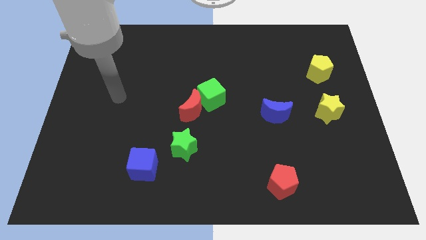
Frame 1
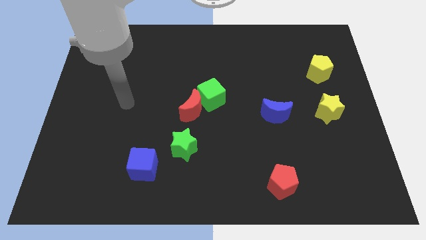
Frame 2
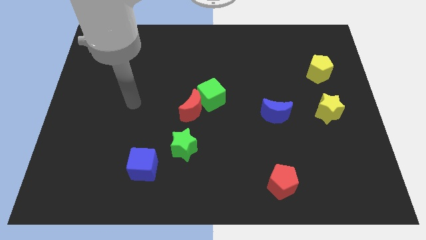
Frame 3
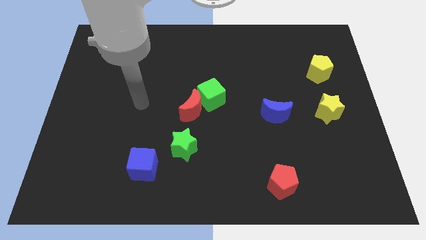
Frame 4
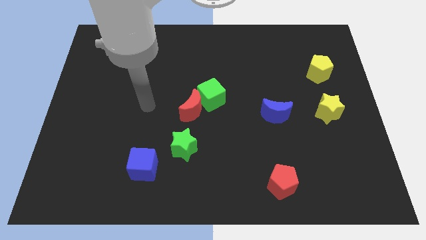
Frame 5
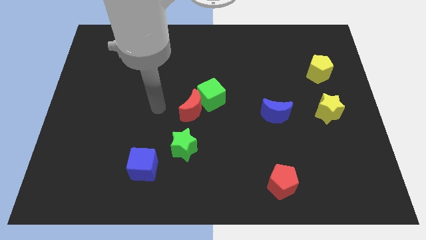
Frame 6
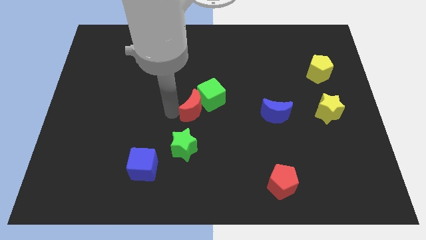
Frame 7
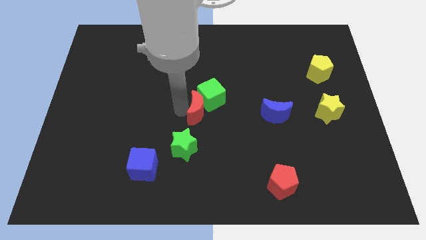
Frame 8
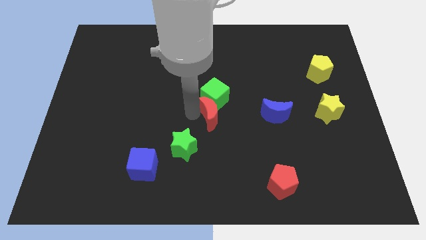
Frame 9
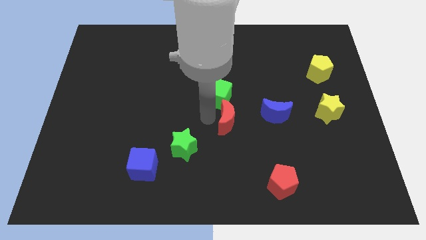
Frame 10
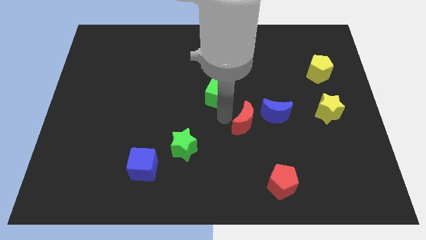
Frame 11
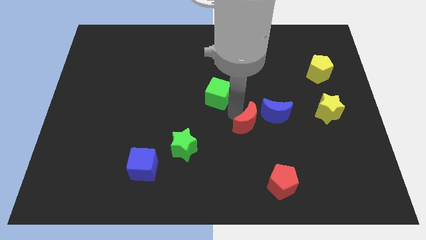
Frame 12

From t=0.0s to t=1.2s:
move the green cube away from the red moon

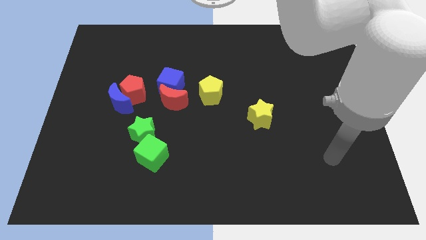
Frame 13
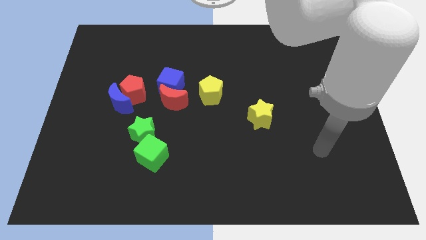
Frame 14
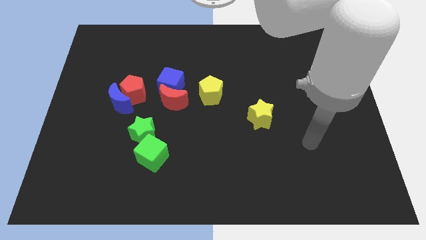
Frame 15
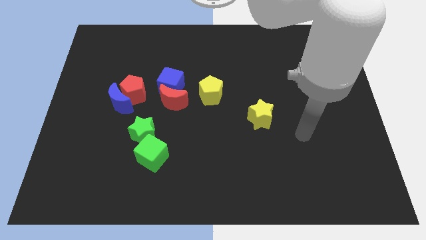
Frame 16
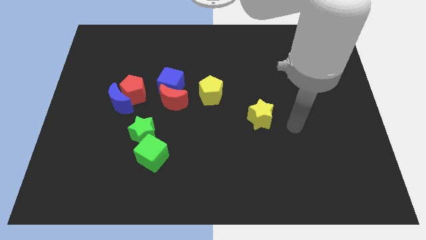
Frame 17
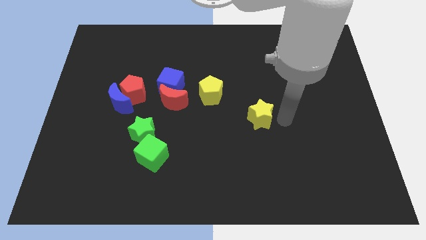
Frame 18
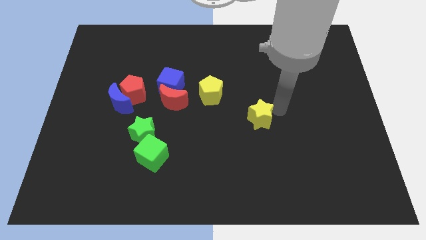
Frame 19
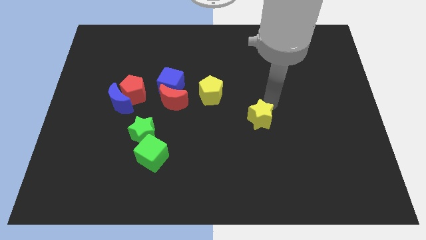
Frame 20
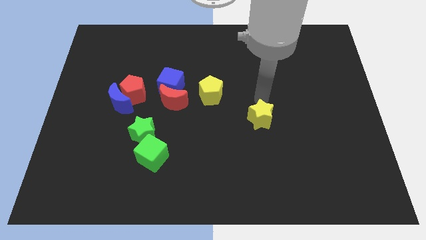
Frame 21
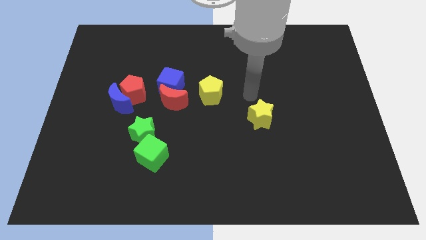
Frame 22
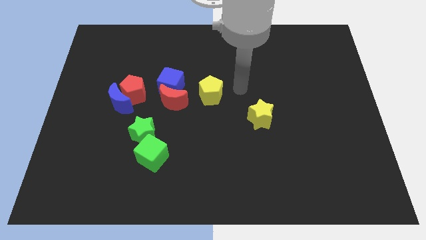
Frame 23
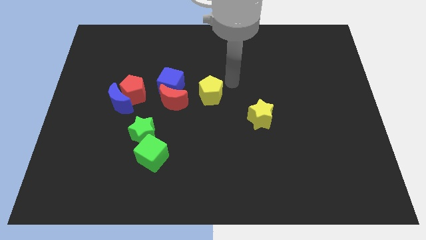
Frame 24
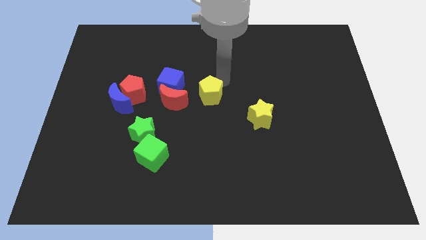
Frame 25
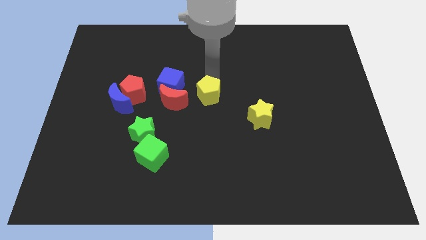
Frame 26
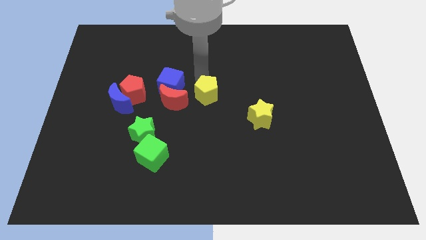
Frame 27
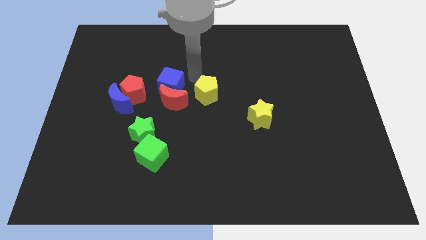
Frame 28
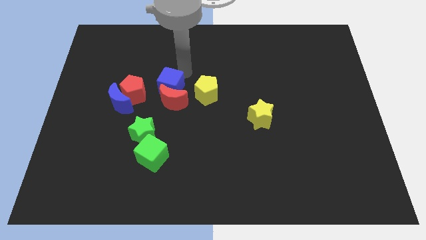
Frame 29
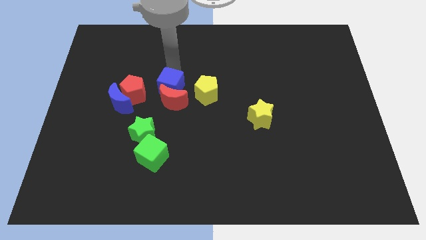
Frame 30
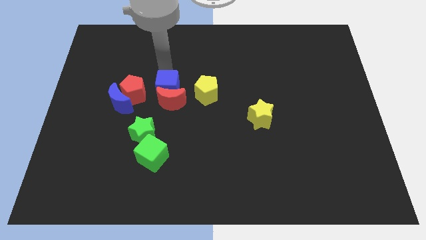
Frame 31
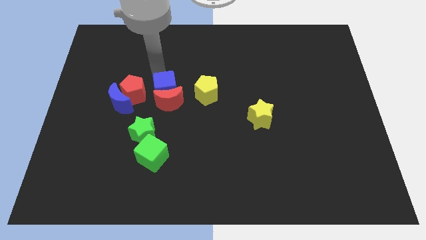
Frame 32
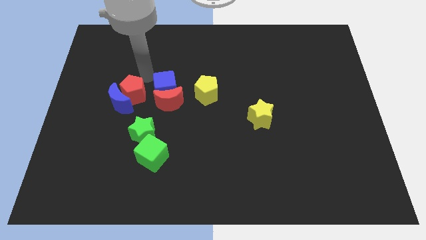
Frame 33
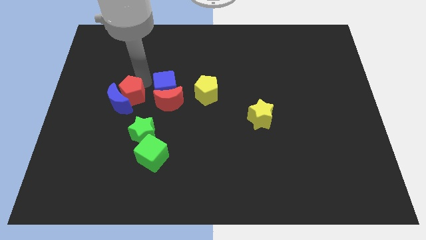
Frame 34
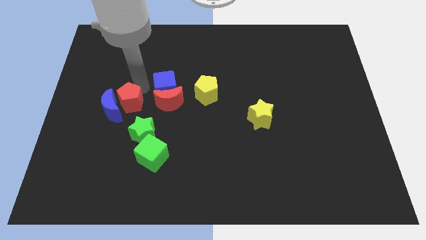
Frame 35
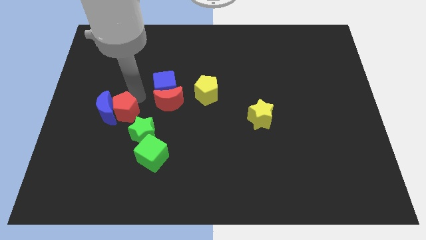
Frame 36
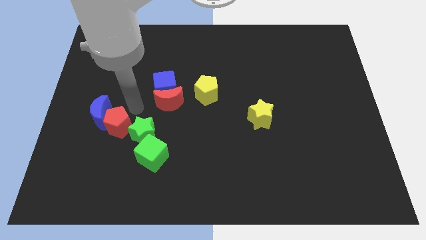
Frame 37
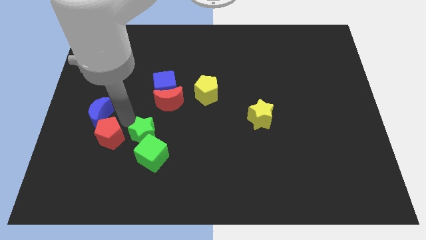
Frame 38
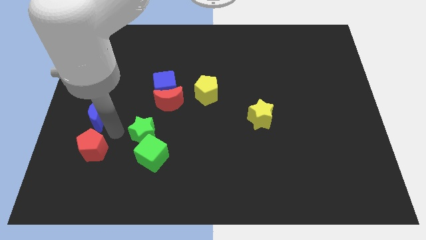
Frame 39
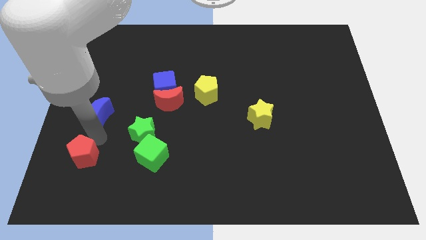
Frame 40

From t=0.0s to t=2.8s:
pull the blue moon apart from the red pentagon

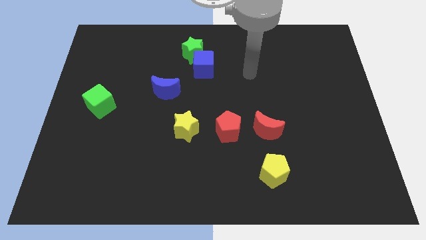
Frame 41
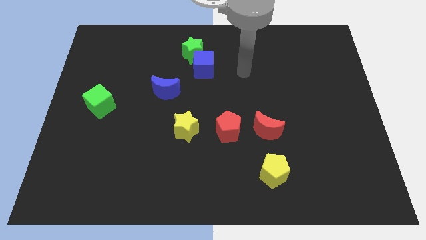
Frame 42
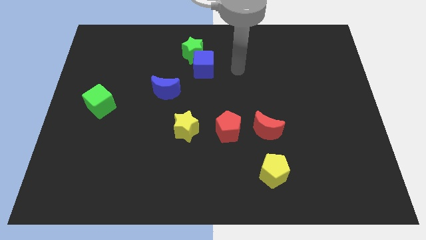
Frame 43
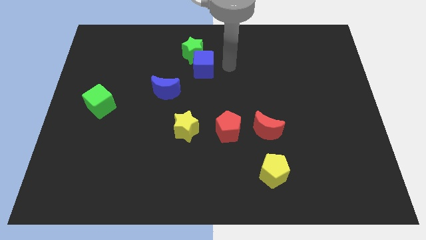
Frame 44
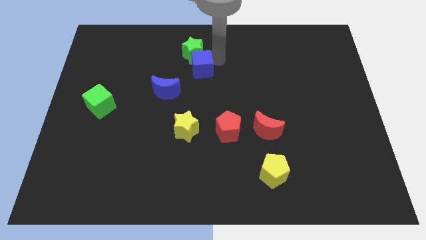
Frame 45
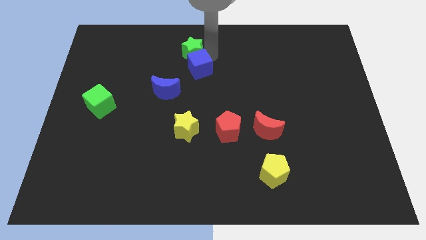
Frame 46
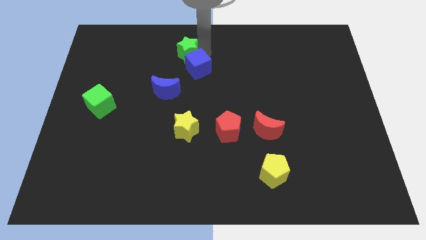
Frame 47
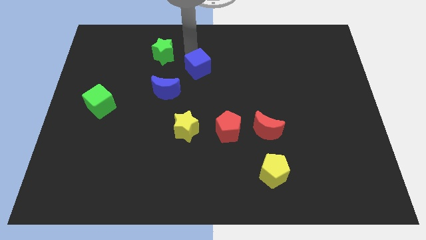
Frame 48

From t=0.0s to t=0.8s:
move the blue cube away from the green star

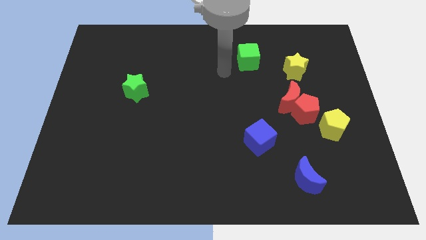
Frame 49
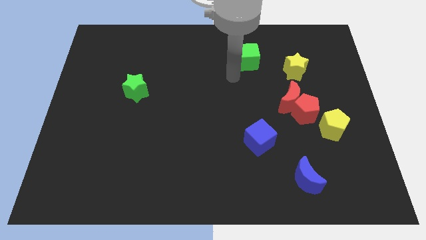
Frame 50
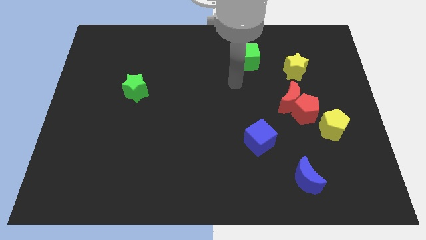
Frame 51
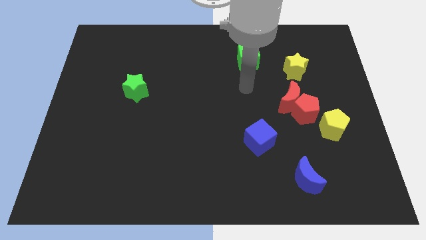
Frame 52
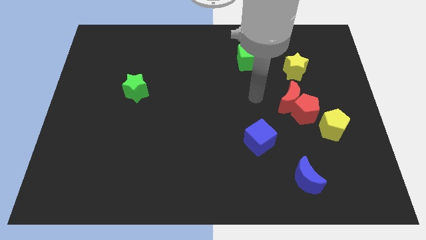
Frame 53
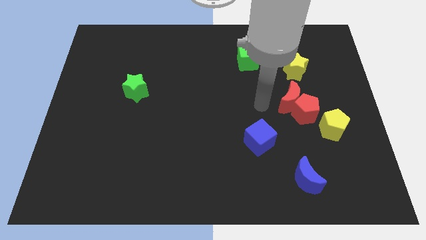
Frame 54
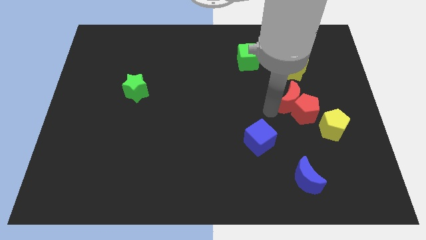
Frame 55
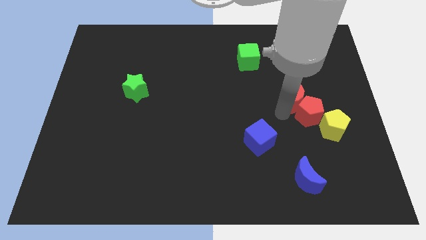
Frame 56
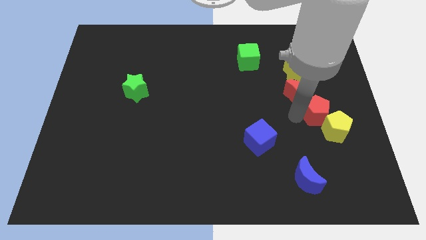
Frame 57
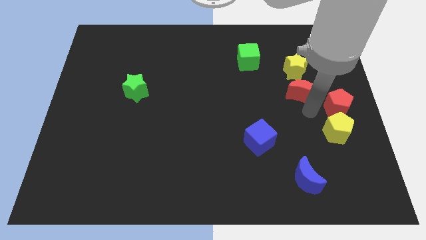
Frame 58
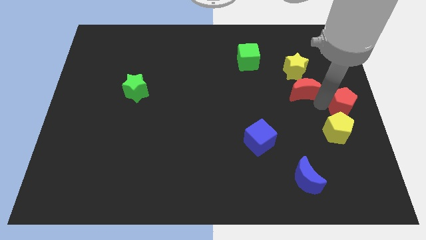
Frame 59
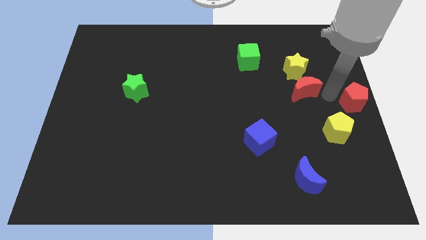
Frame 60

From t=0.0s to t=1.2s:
move the red moon away from the red pentagon

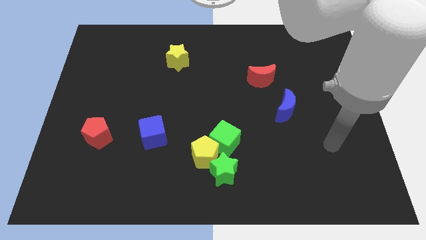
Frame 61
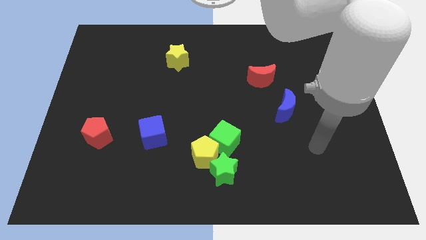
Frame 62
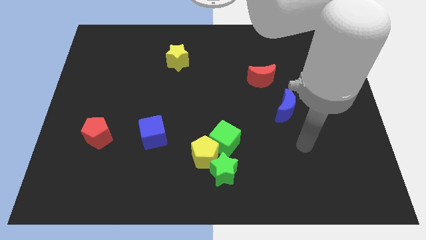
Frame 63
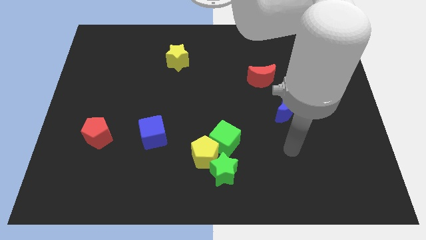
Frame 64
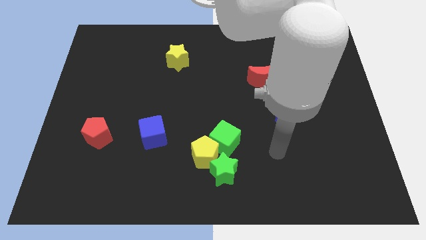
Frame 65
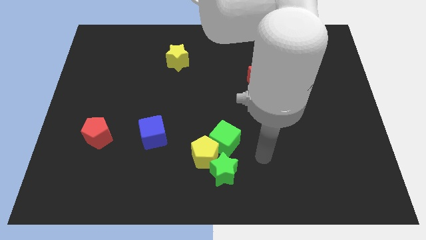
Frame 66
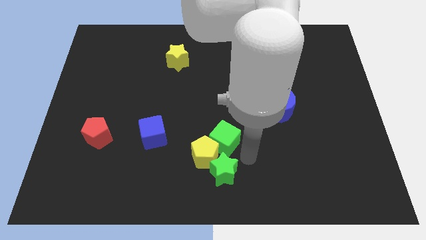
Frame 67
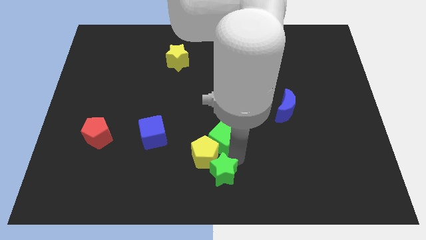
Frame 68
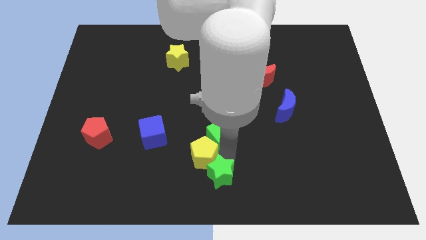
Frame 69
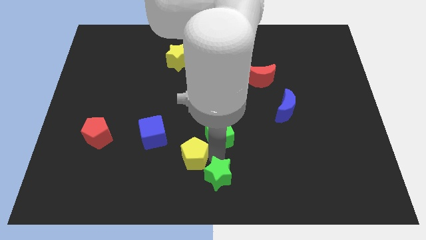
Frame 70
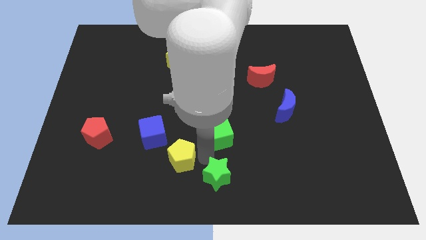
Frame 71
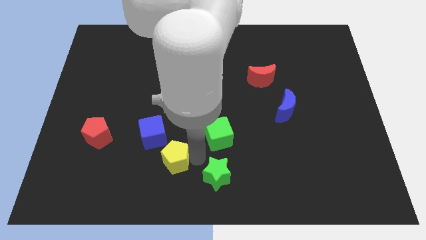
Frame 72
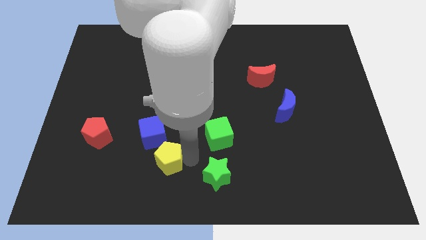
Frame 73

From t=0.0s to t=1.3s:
separate the yellow pentagon from the green cube and green star

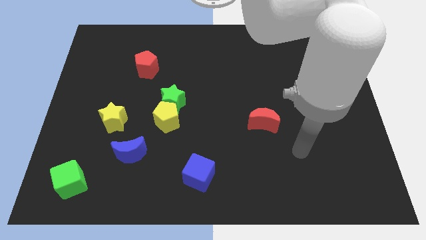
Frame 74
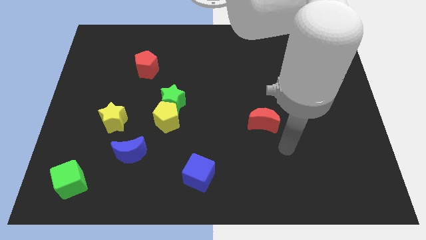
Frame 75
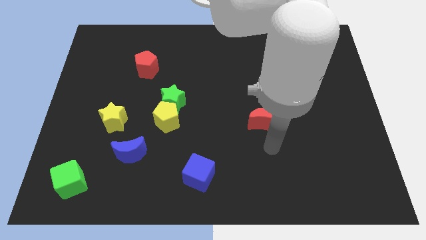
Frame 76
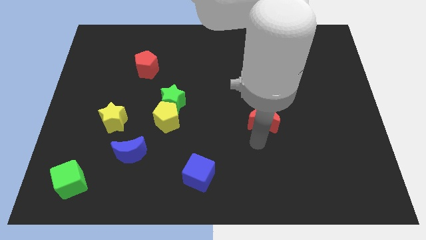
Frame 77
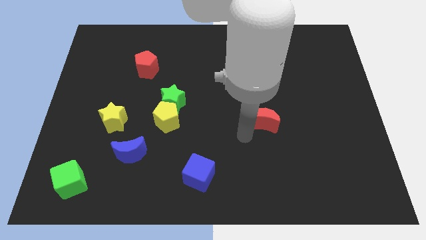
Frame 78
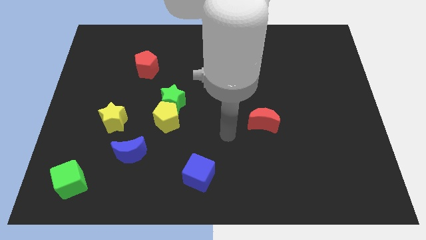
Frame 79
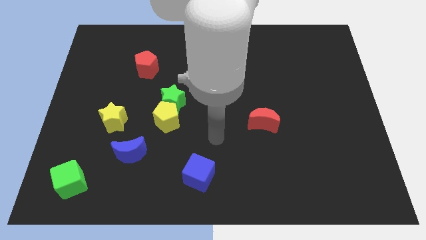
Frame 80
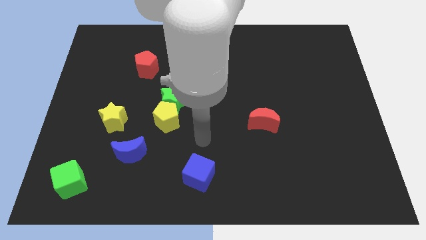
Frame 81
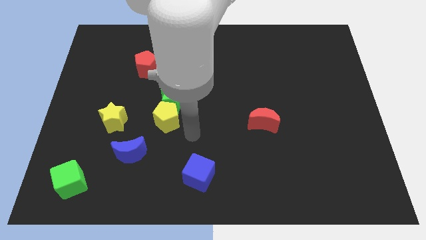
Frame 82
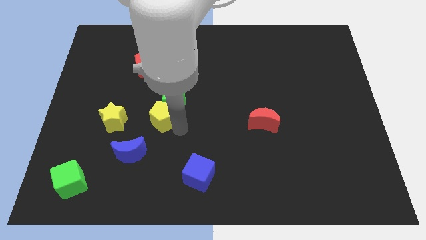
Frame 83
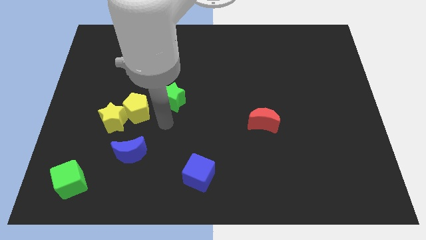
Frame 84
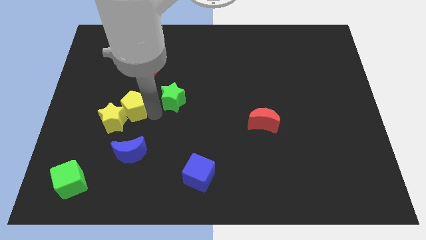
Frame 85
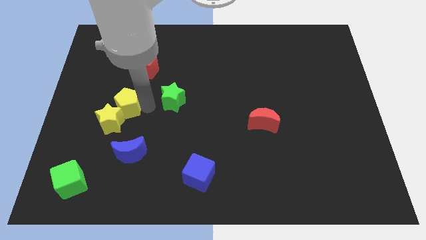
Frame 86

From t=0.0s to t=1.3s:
move the green star away from the yellow pentagon

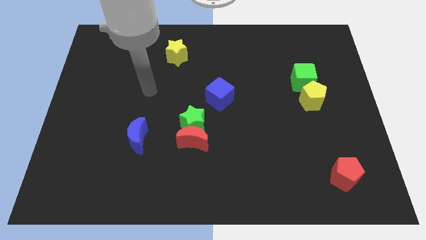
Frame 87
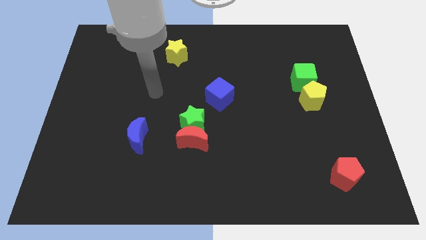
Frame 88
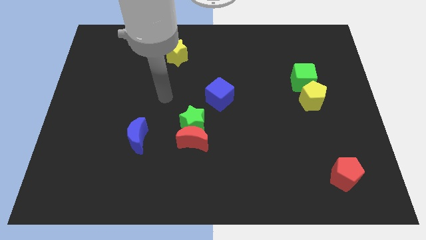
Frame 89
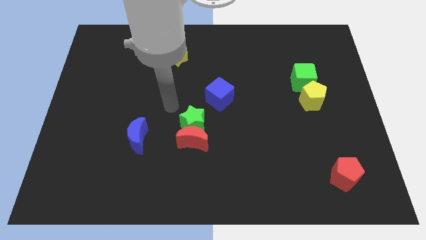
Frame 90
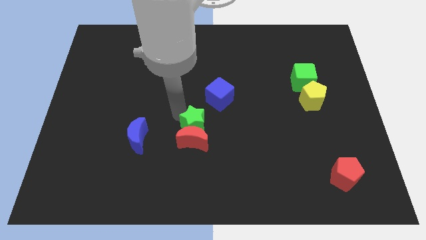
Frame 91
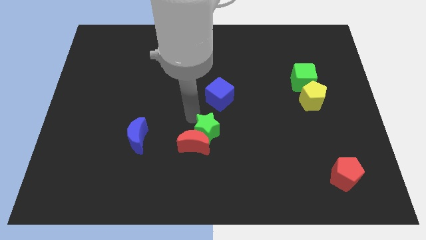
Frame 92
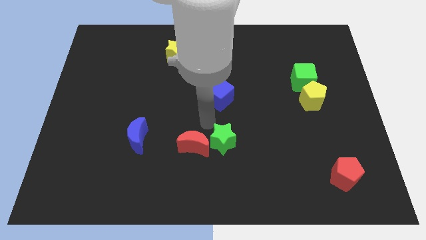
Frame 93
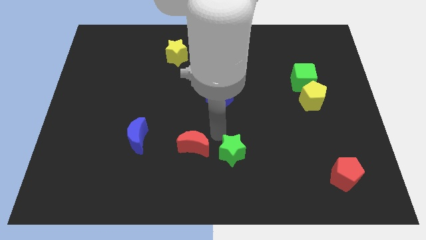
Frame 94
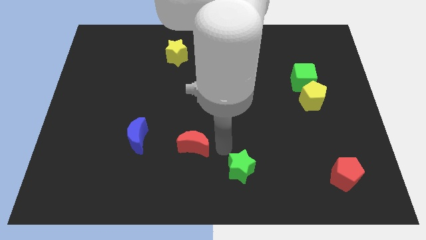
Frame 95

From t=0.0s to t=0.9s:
move the red moon away from the green star
